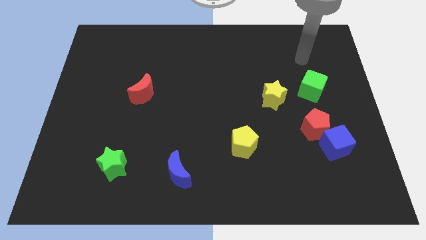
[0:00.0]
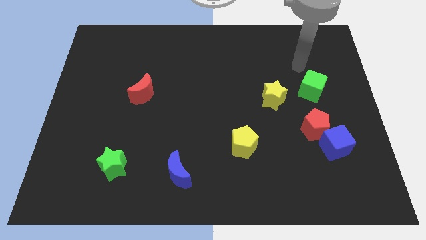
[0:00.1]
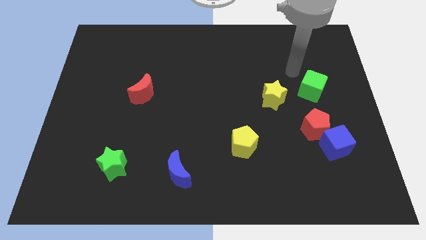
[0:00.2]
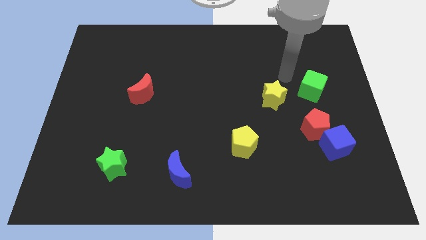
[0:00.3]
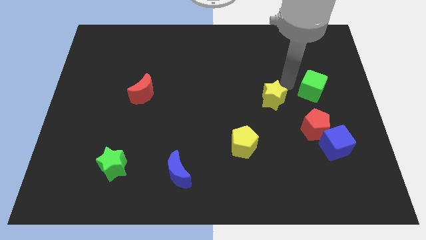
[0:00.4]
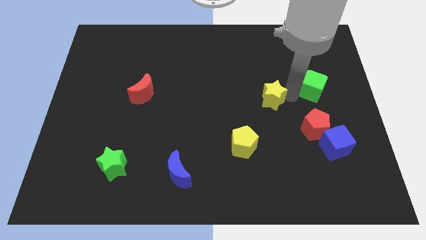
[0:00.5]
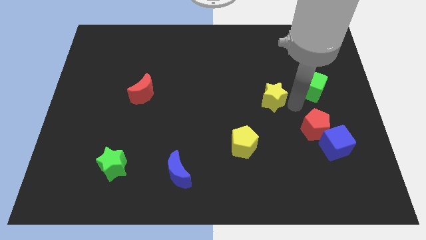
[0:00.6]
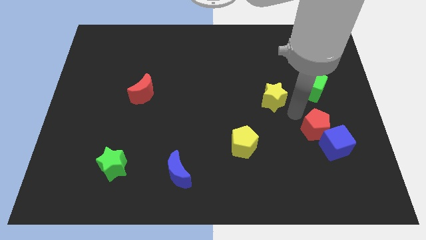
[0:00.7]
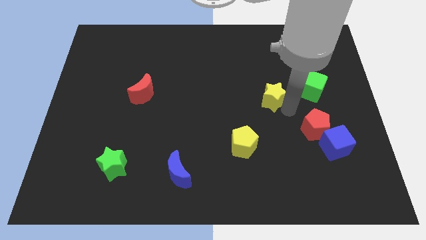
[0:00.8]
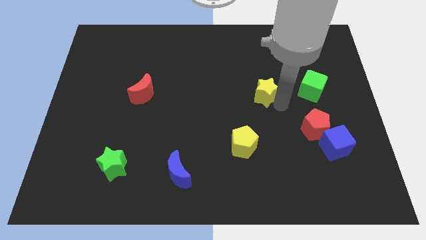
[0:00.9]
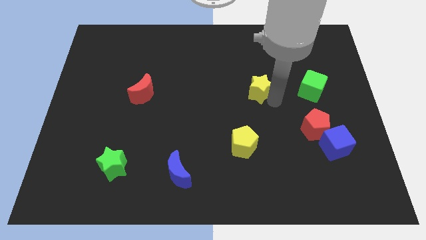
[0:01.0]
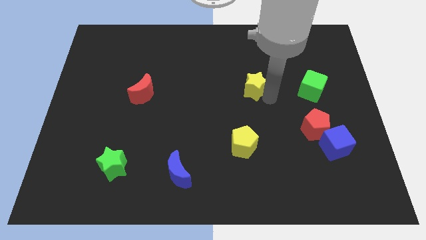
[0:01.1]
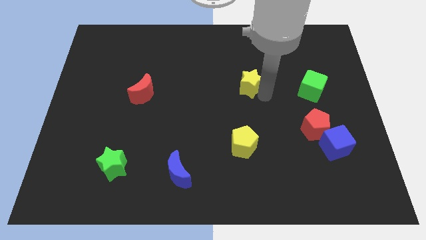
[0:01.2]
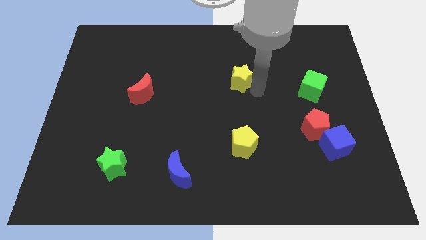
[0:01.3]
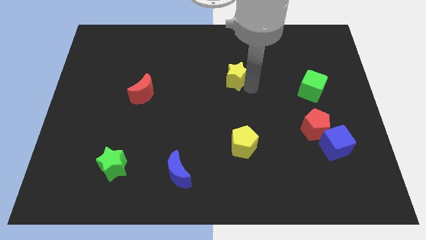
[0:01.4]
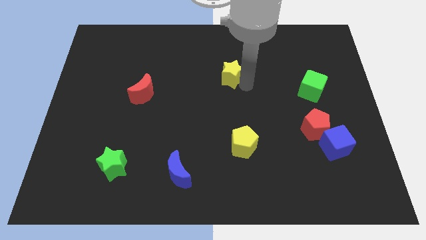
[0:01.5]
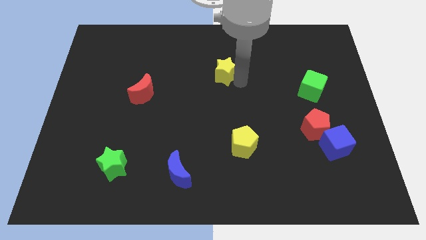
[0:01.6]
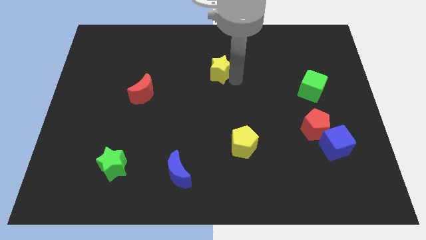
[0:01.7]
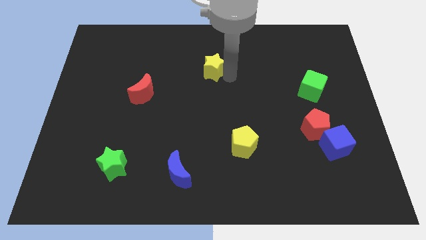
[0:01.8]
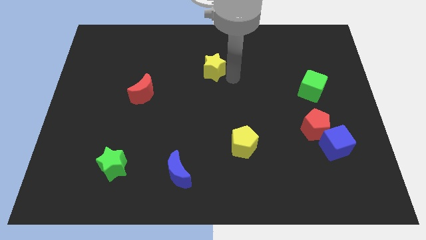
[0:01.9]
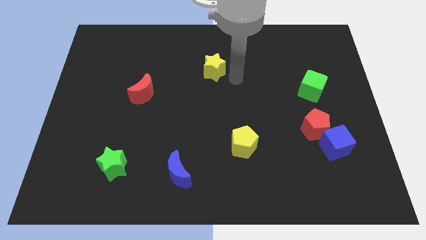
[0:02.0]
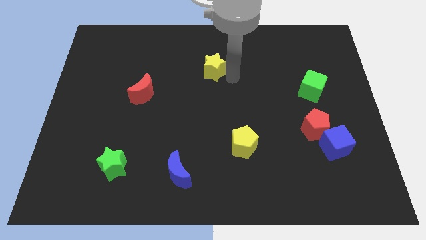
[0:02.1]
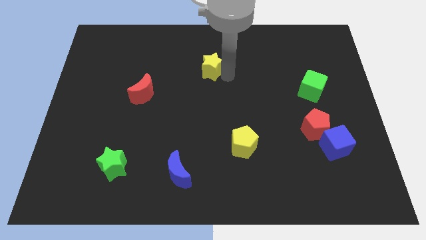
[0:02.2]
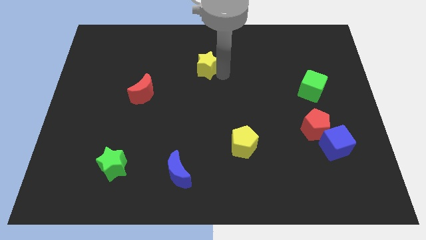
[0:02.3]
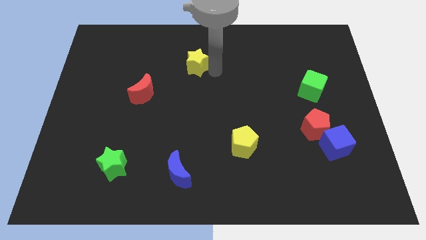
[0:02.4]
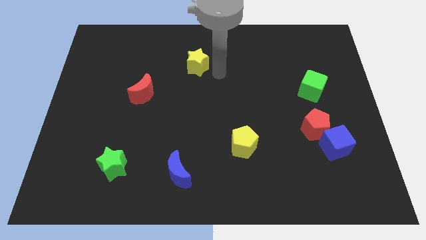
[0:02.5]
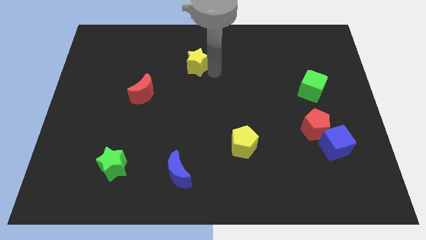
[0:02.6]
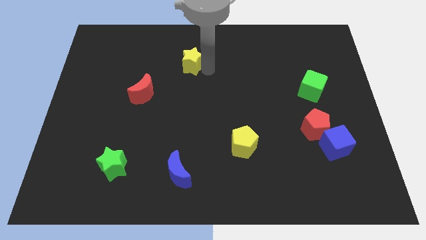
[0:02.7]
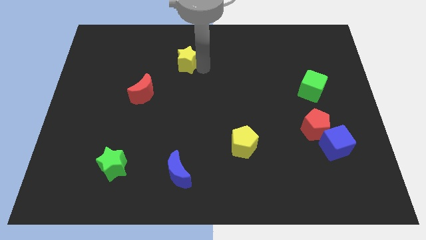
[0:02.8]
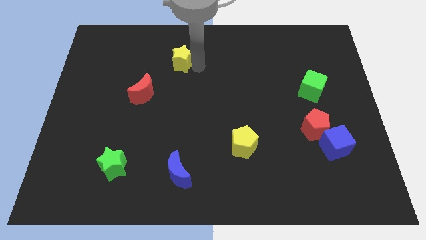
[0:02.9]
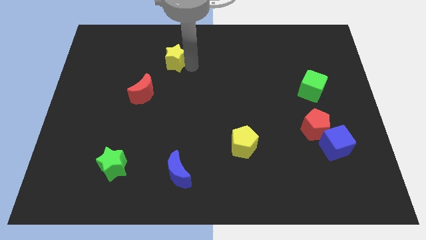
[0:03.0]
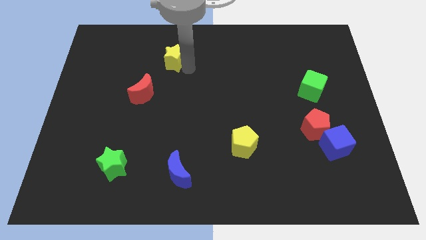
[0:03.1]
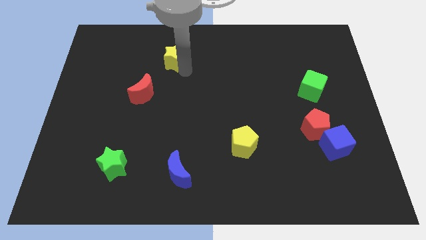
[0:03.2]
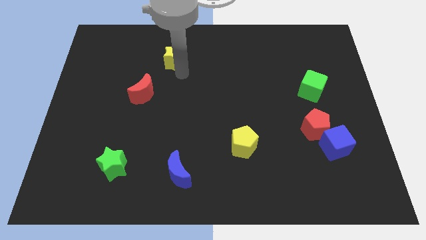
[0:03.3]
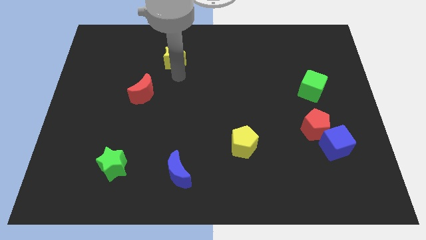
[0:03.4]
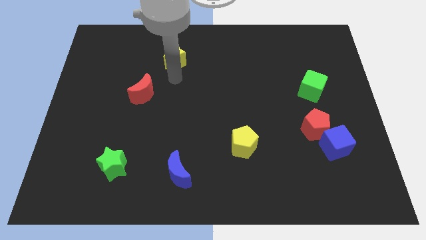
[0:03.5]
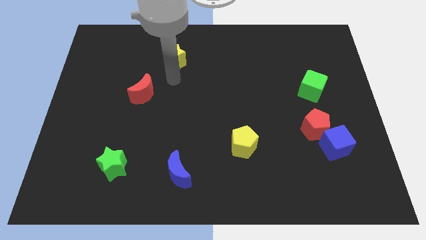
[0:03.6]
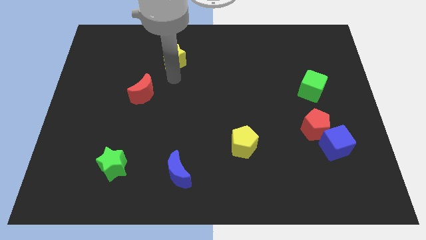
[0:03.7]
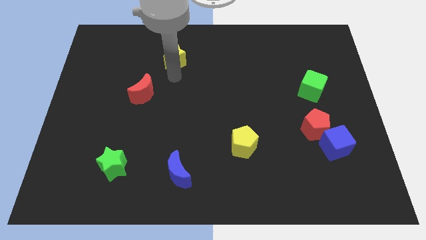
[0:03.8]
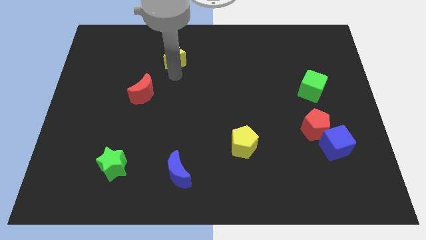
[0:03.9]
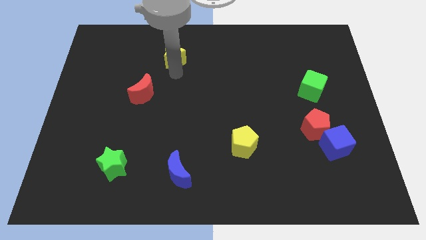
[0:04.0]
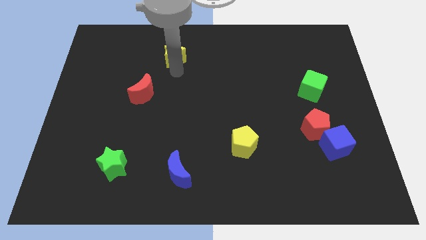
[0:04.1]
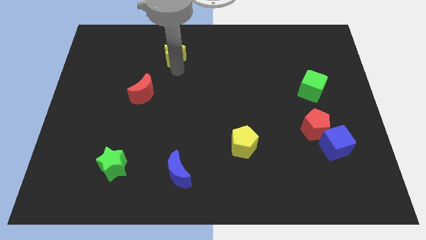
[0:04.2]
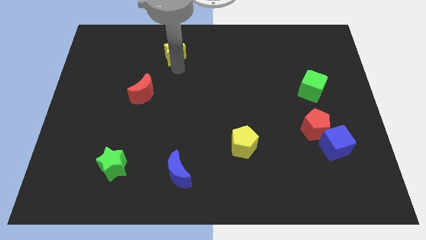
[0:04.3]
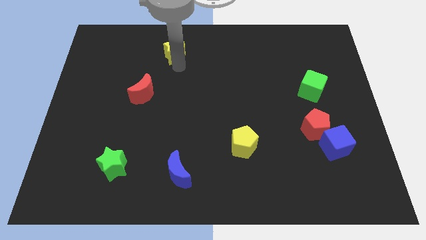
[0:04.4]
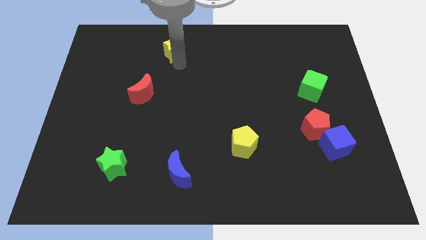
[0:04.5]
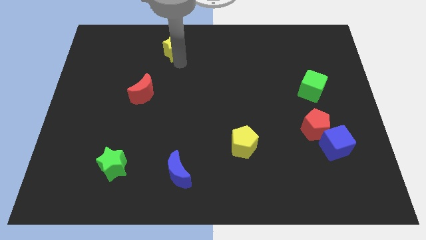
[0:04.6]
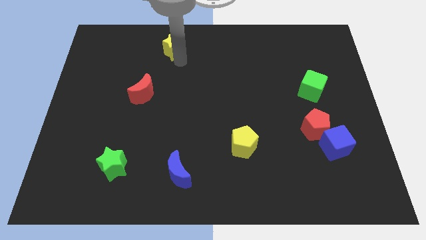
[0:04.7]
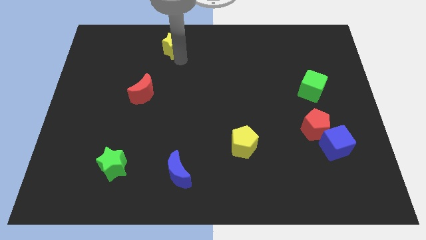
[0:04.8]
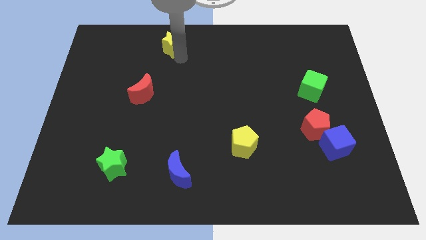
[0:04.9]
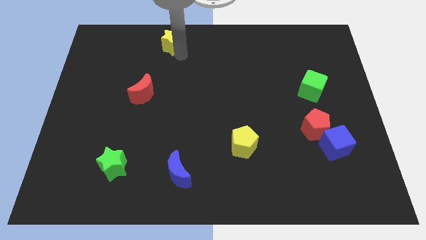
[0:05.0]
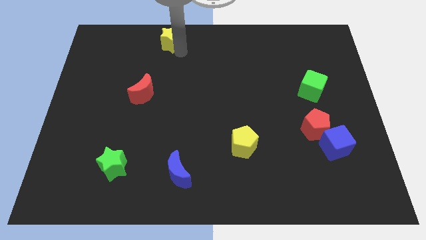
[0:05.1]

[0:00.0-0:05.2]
push the yellow star to the top

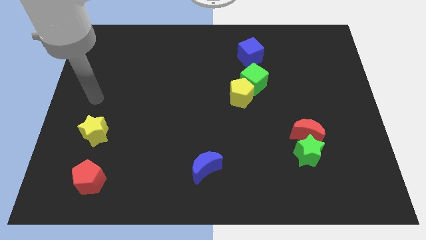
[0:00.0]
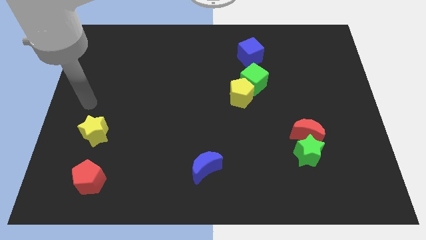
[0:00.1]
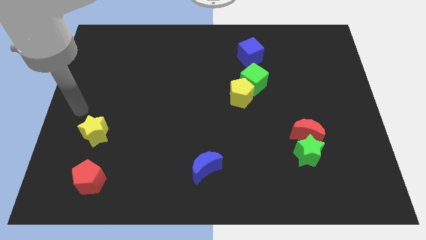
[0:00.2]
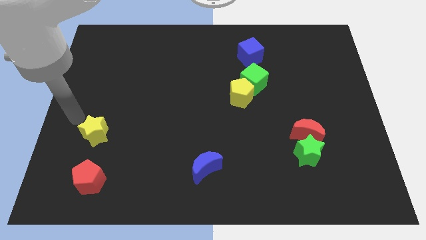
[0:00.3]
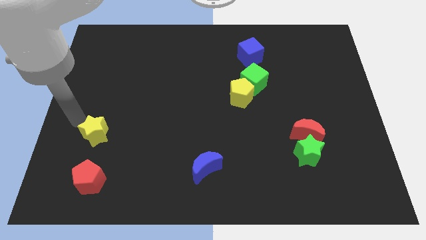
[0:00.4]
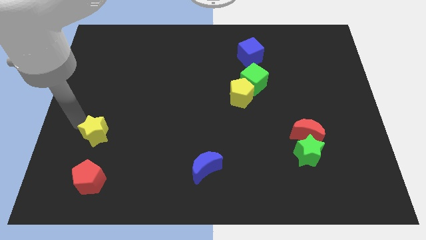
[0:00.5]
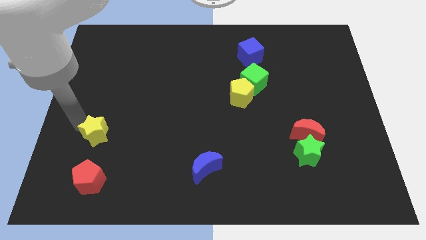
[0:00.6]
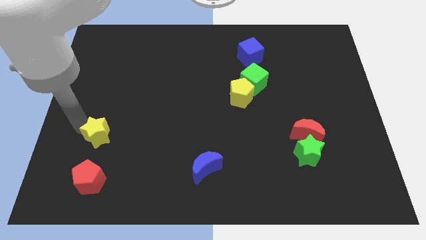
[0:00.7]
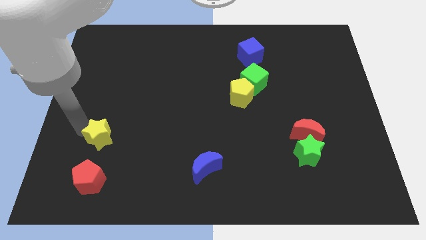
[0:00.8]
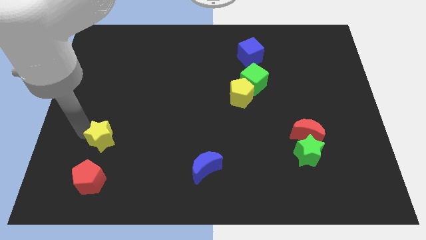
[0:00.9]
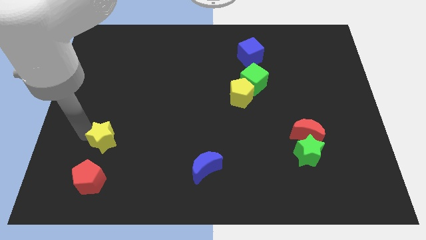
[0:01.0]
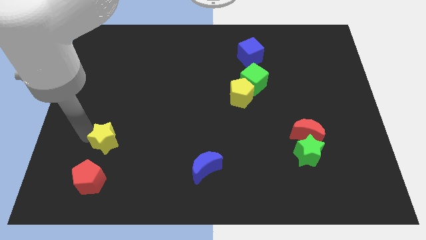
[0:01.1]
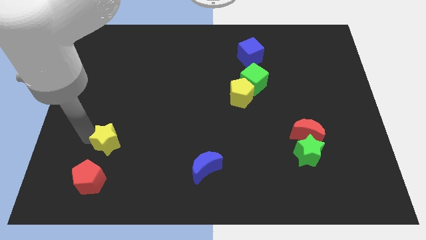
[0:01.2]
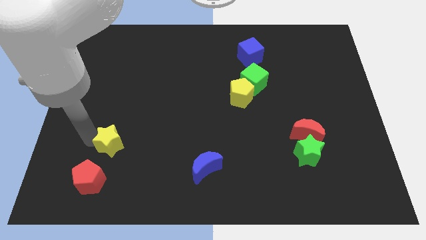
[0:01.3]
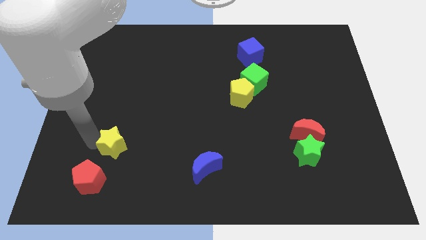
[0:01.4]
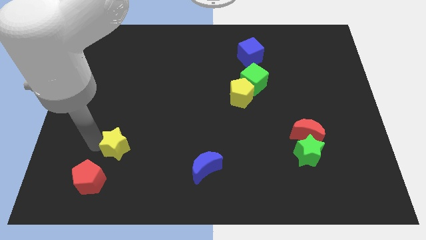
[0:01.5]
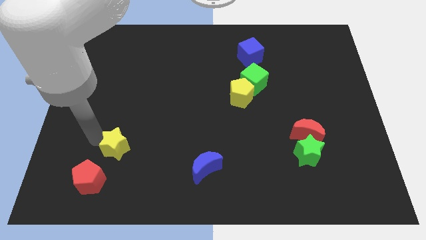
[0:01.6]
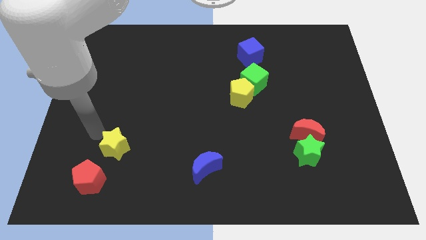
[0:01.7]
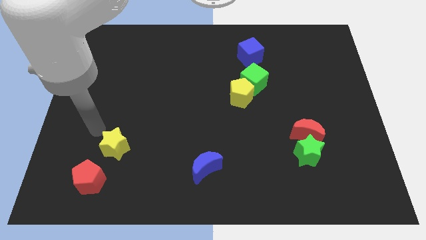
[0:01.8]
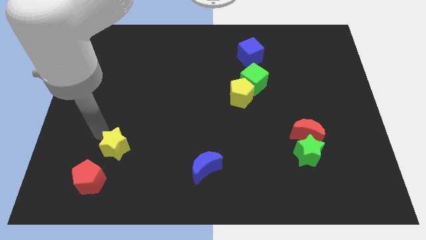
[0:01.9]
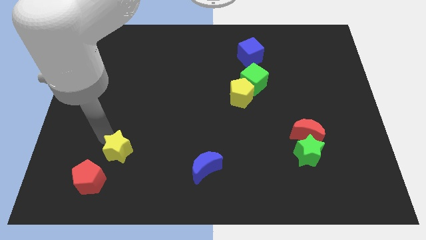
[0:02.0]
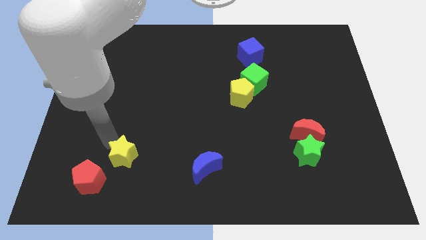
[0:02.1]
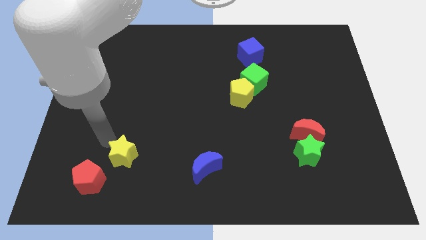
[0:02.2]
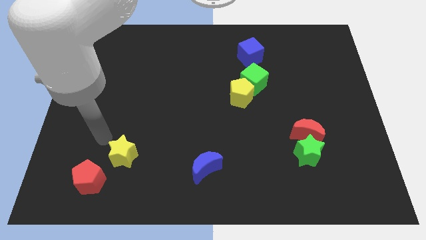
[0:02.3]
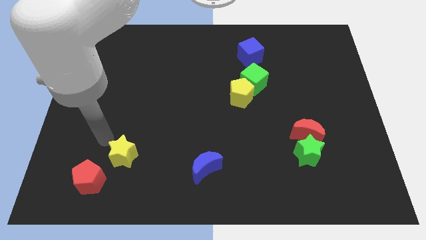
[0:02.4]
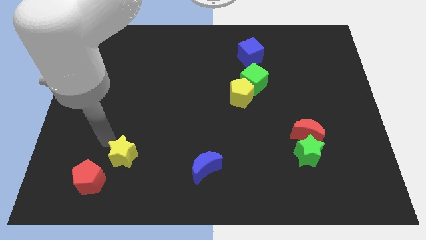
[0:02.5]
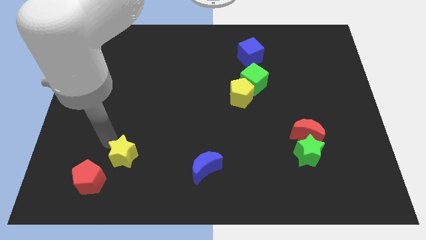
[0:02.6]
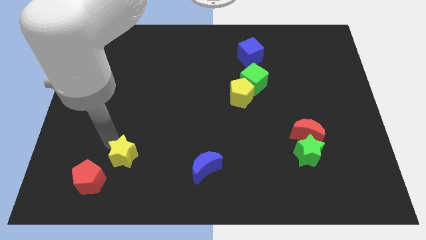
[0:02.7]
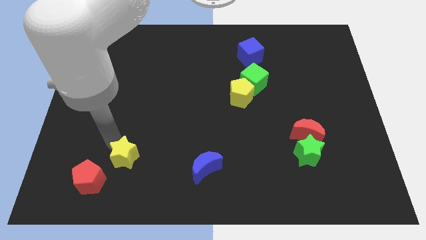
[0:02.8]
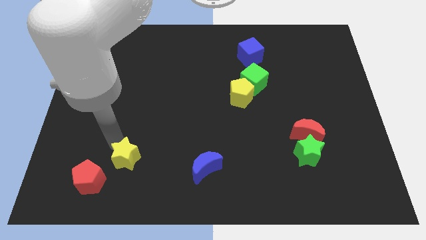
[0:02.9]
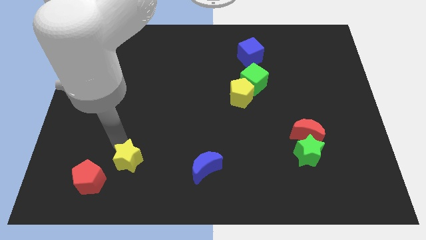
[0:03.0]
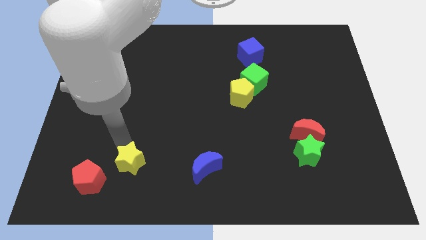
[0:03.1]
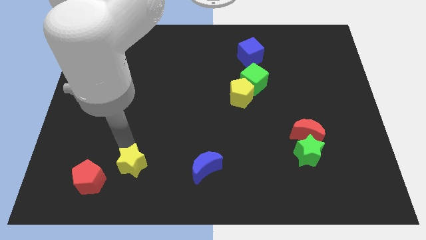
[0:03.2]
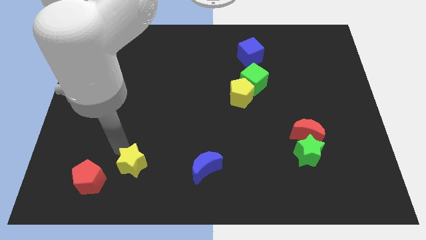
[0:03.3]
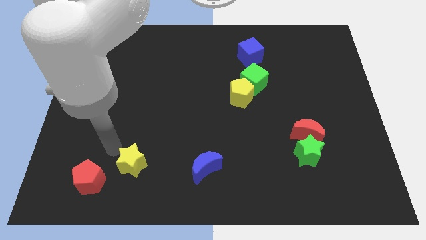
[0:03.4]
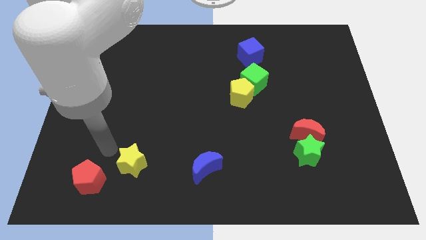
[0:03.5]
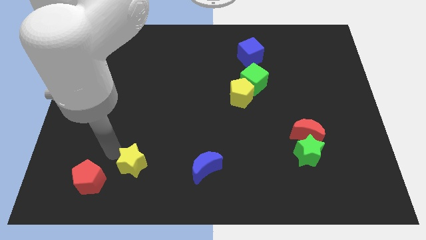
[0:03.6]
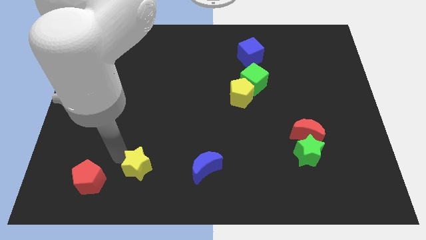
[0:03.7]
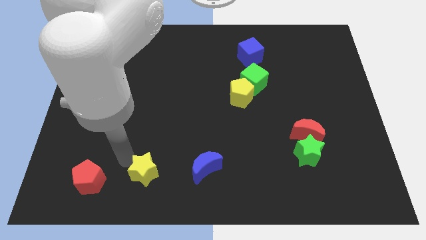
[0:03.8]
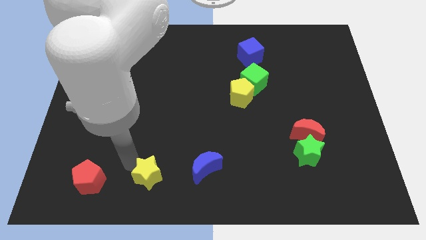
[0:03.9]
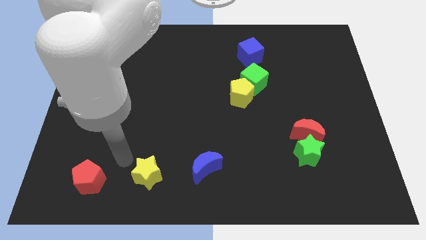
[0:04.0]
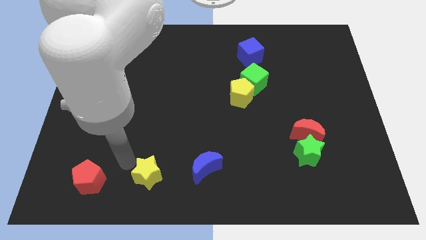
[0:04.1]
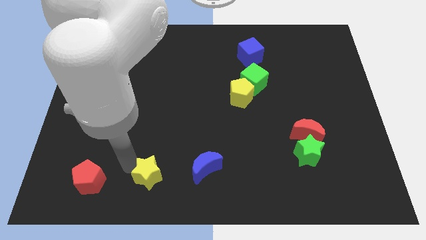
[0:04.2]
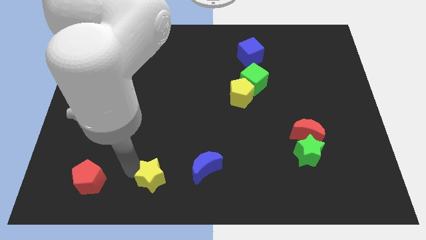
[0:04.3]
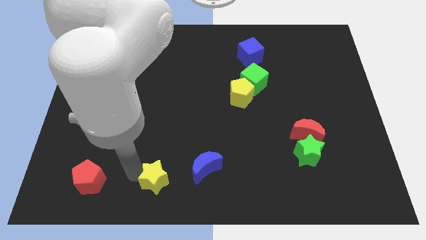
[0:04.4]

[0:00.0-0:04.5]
slide the yellow star to the bottom
